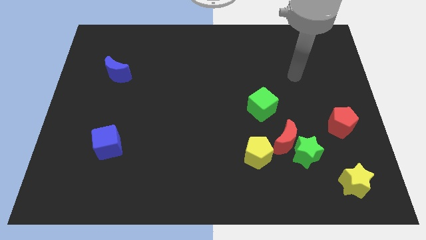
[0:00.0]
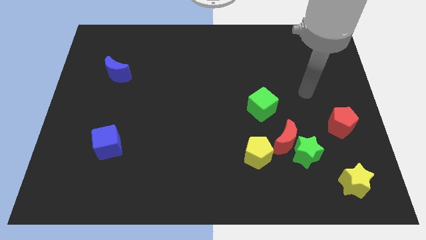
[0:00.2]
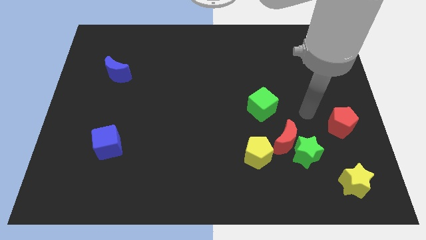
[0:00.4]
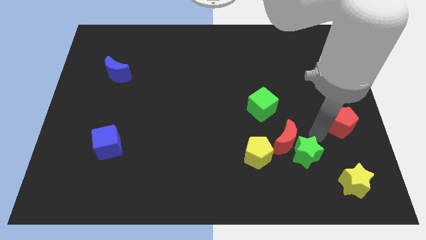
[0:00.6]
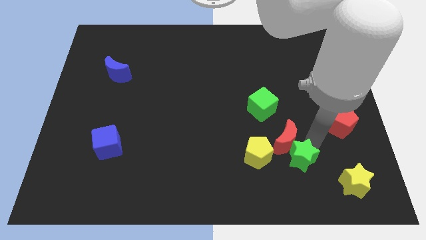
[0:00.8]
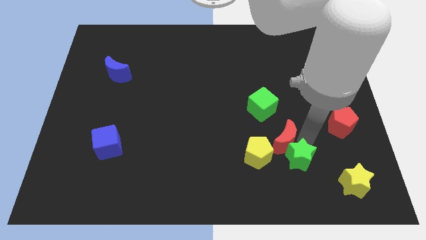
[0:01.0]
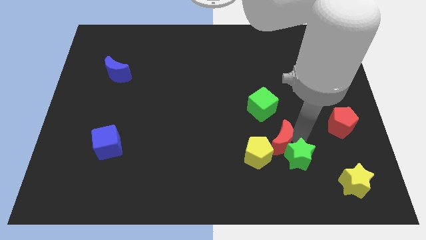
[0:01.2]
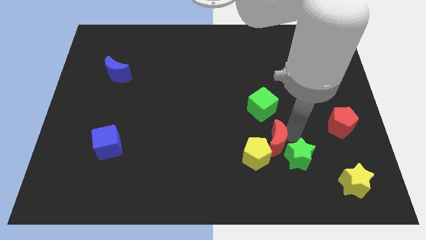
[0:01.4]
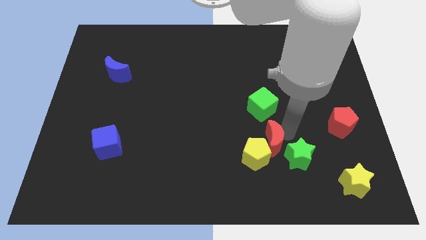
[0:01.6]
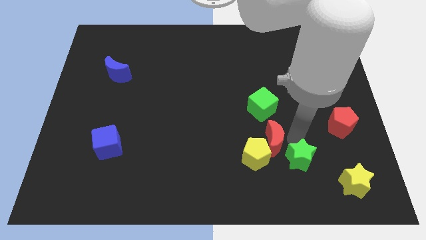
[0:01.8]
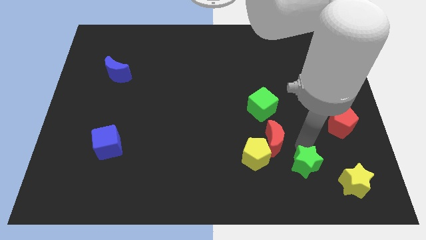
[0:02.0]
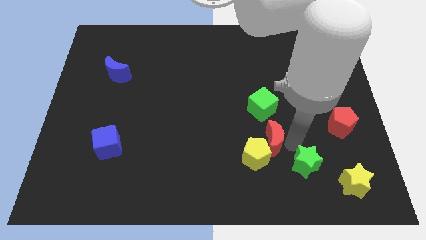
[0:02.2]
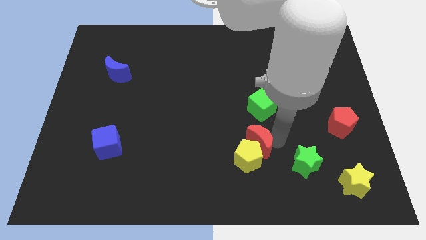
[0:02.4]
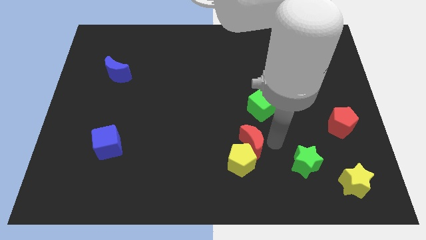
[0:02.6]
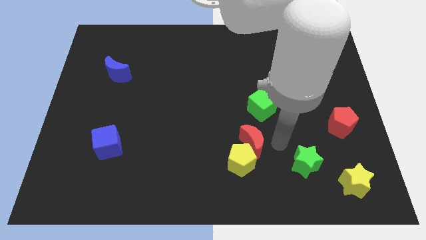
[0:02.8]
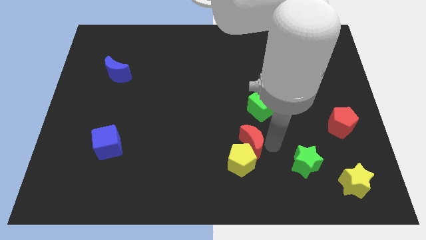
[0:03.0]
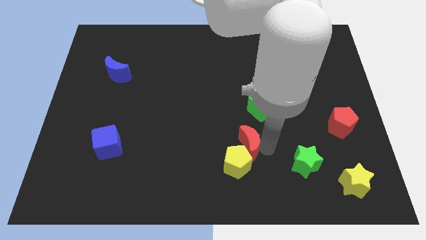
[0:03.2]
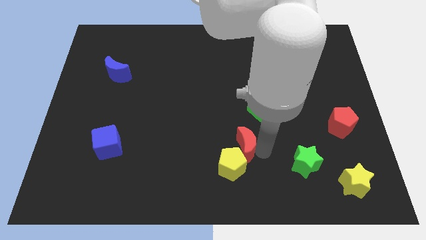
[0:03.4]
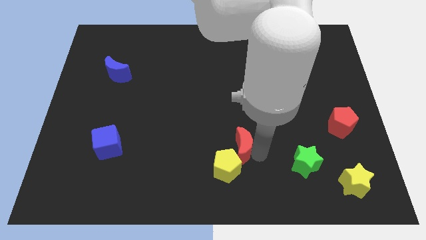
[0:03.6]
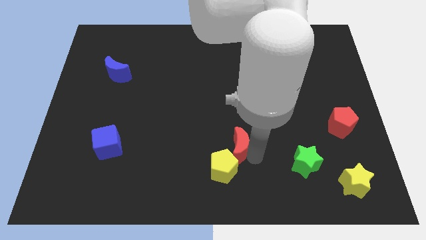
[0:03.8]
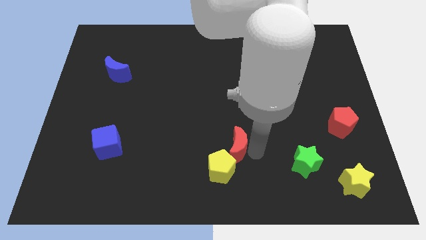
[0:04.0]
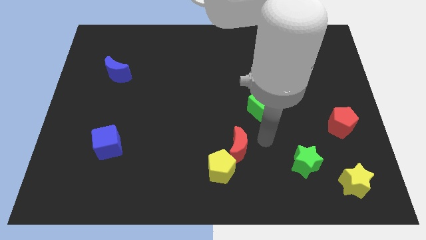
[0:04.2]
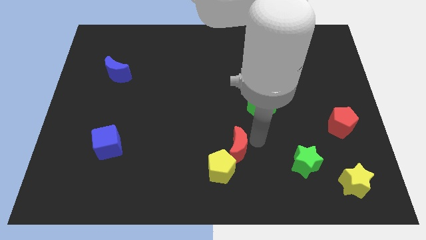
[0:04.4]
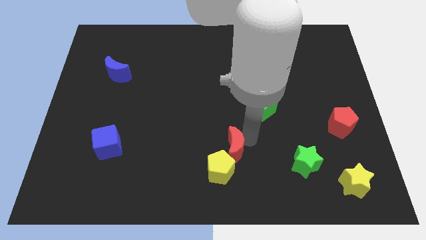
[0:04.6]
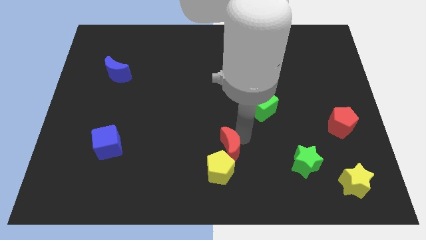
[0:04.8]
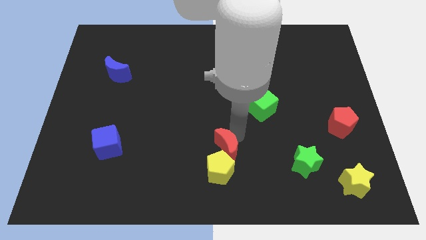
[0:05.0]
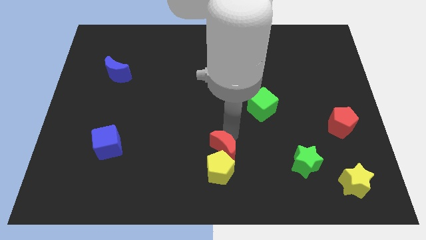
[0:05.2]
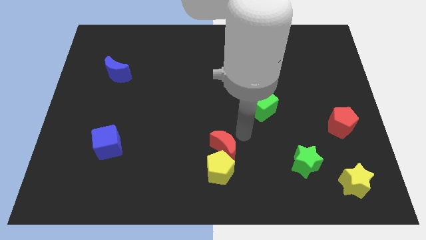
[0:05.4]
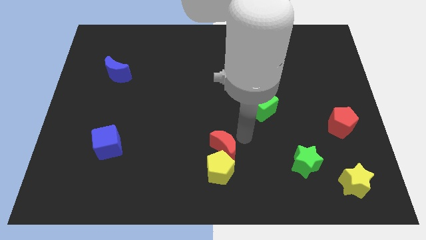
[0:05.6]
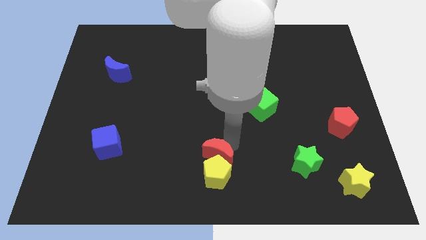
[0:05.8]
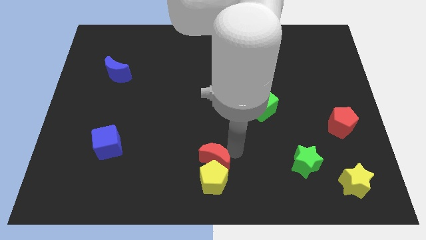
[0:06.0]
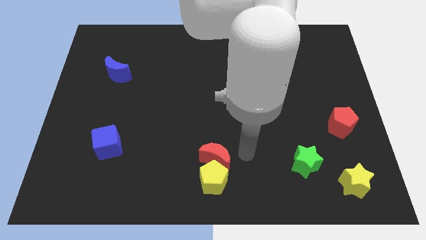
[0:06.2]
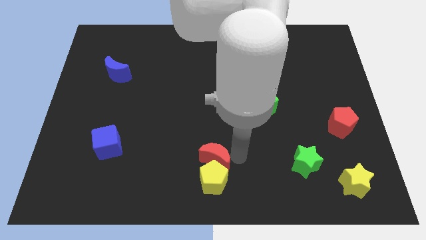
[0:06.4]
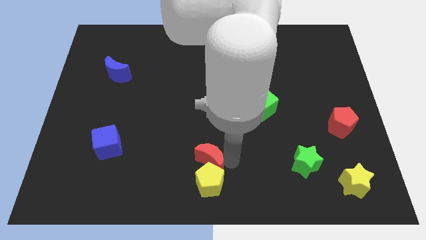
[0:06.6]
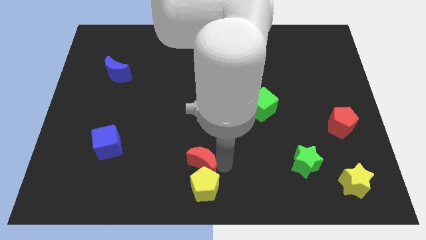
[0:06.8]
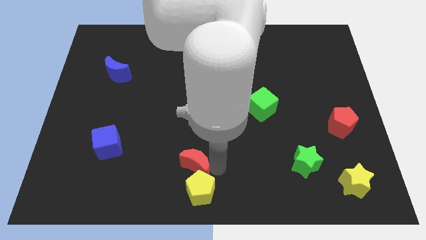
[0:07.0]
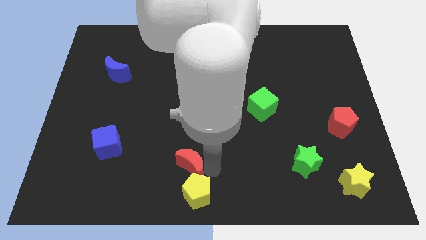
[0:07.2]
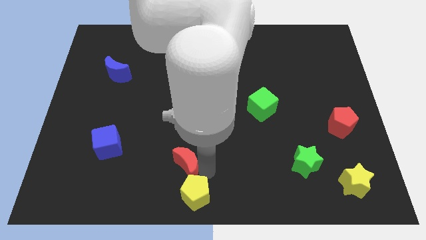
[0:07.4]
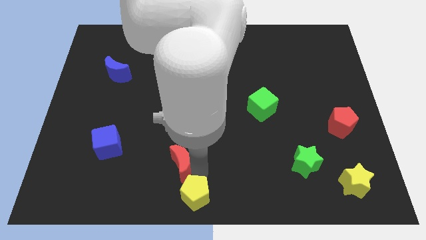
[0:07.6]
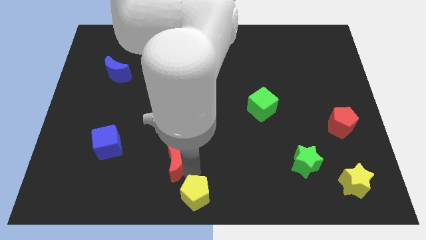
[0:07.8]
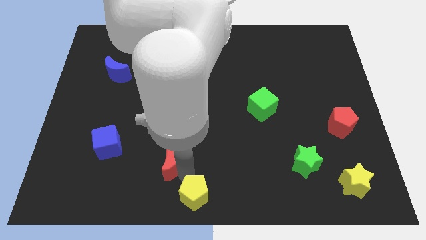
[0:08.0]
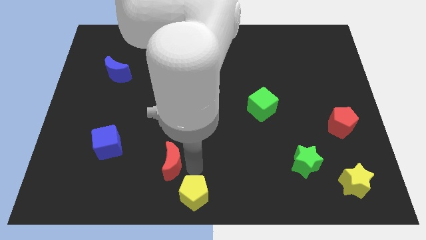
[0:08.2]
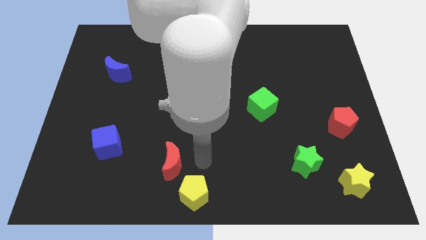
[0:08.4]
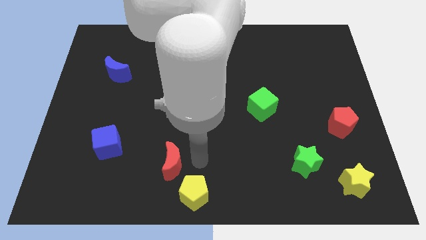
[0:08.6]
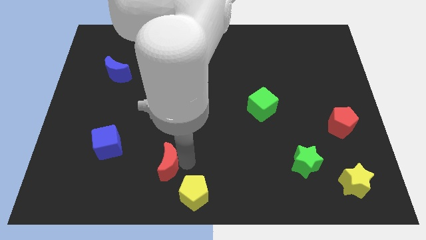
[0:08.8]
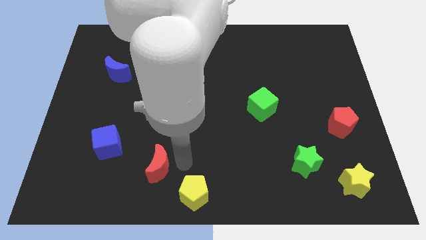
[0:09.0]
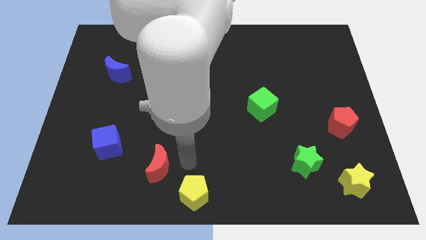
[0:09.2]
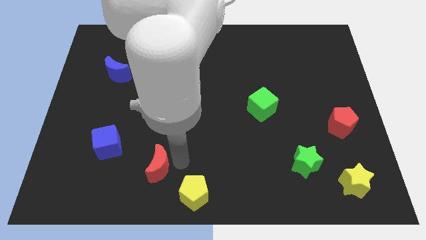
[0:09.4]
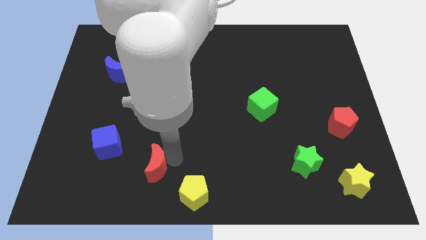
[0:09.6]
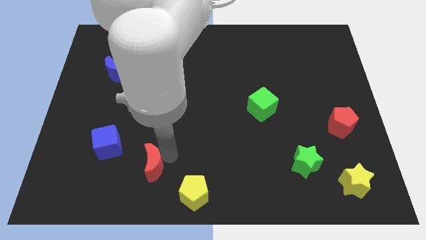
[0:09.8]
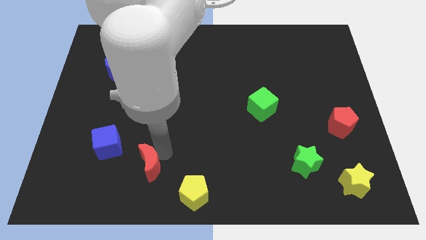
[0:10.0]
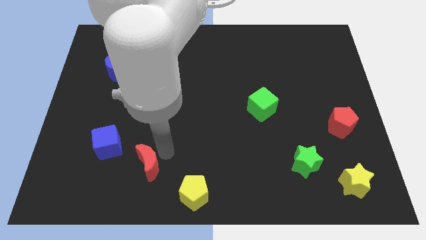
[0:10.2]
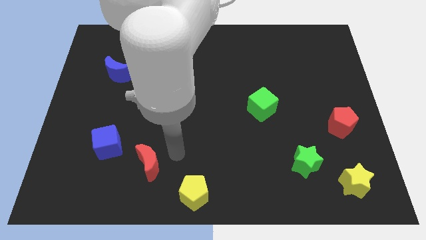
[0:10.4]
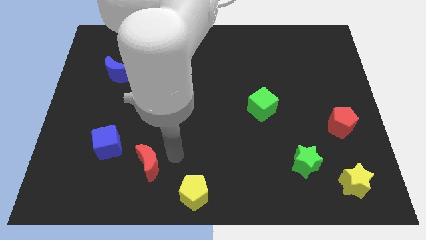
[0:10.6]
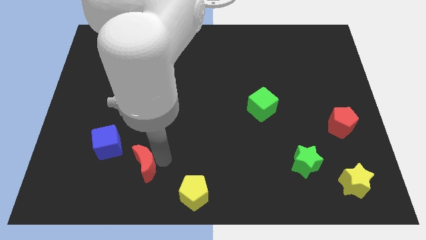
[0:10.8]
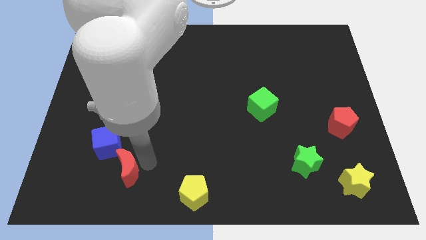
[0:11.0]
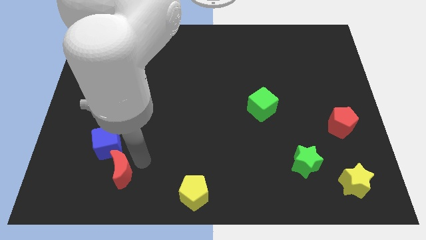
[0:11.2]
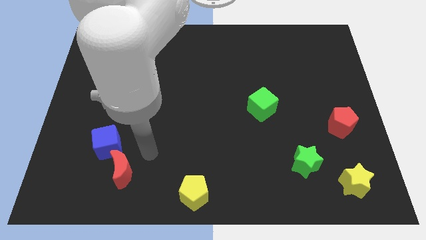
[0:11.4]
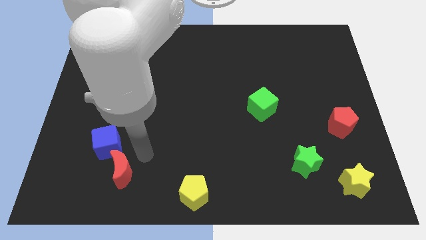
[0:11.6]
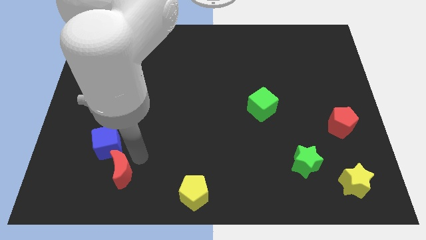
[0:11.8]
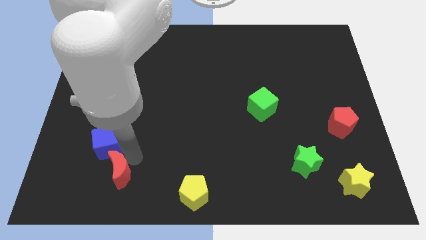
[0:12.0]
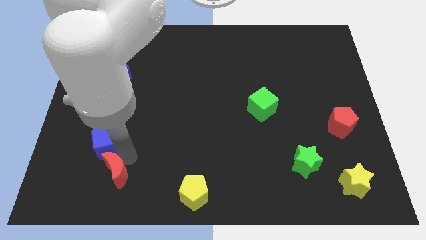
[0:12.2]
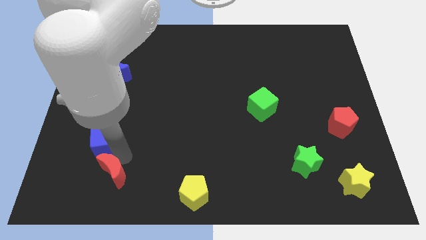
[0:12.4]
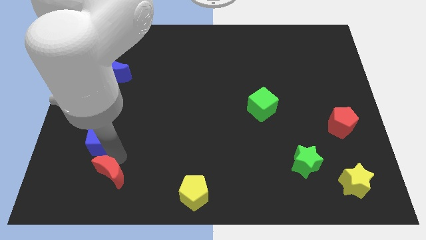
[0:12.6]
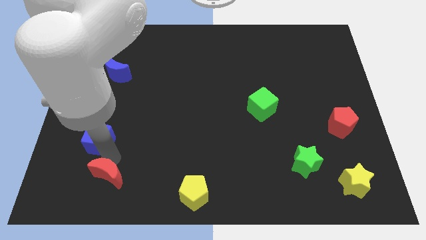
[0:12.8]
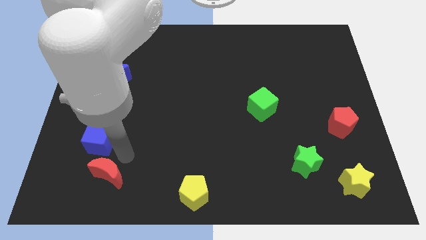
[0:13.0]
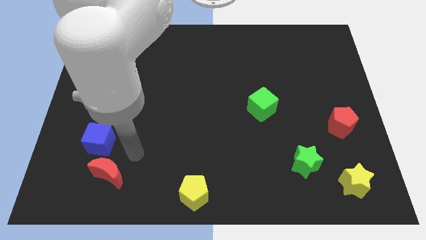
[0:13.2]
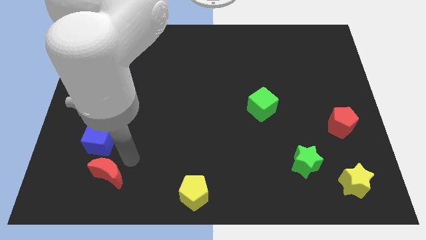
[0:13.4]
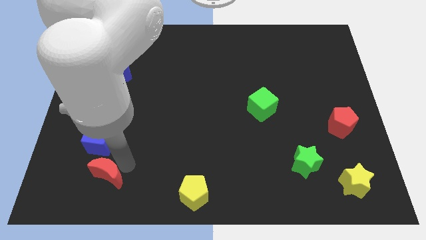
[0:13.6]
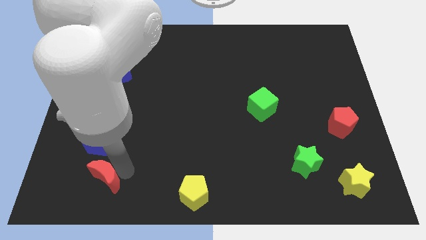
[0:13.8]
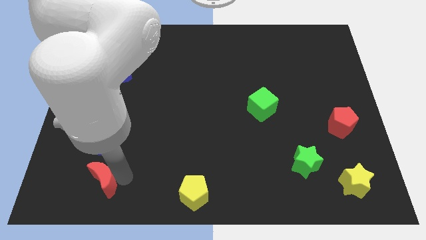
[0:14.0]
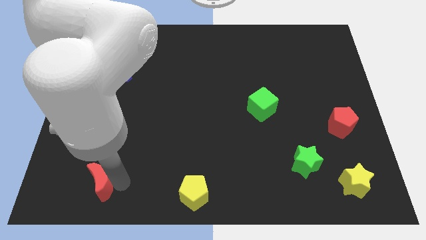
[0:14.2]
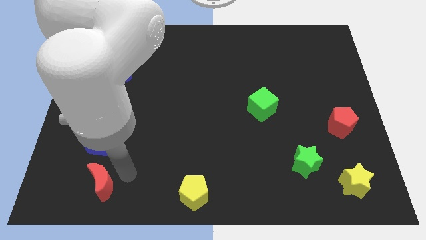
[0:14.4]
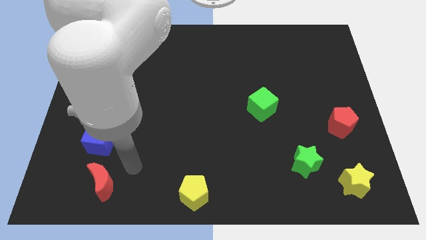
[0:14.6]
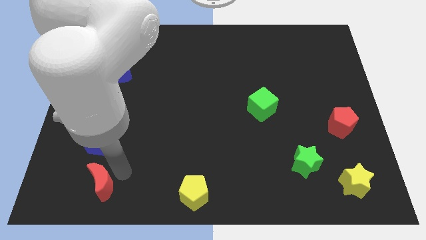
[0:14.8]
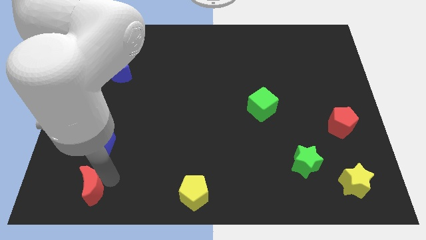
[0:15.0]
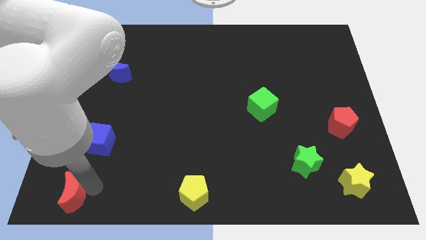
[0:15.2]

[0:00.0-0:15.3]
move the red moon to the bottom left of the board
